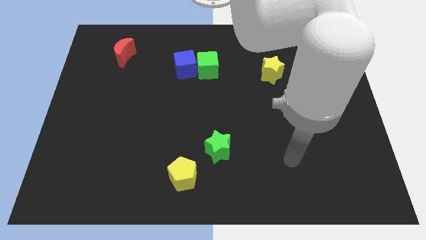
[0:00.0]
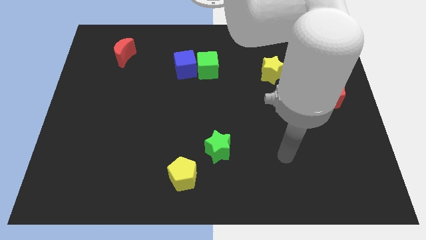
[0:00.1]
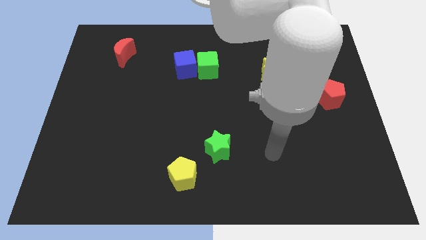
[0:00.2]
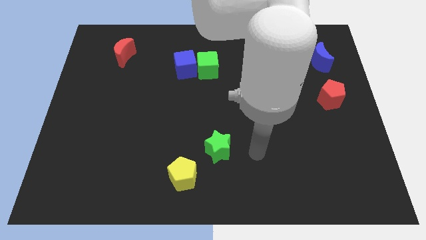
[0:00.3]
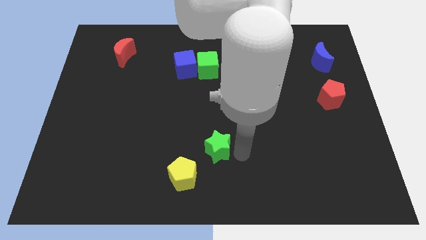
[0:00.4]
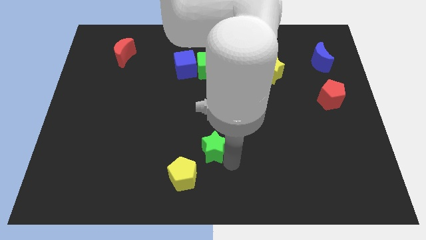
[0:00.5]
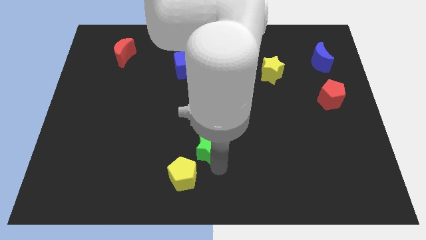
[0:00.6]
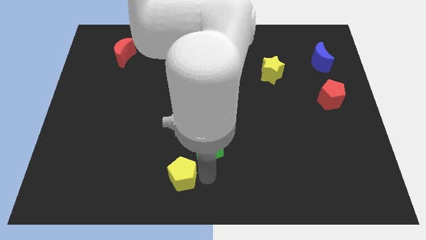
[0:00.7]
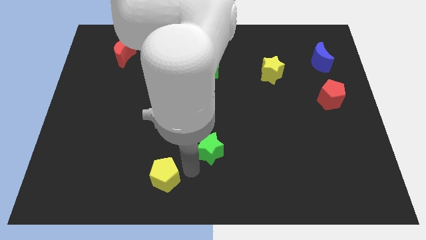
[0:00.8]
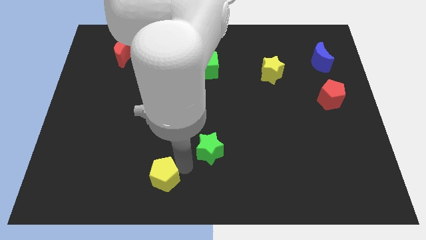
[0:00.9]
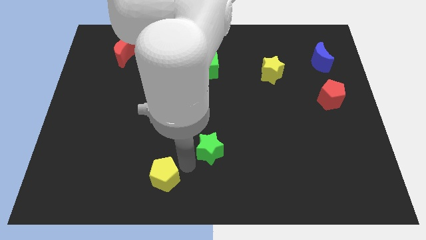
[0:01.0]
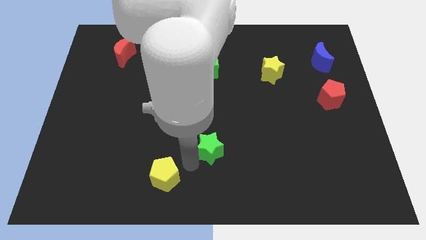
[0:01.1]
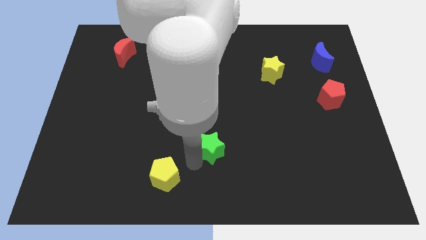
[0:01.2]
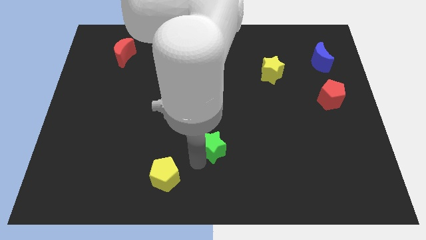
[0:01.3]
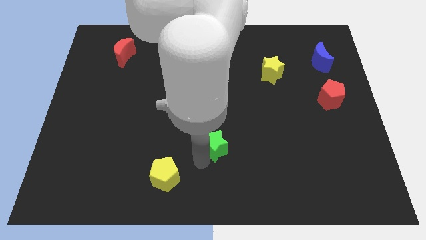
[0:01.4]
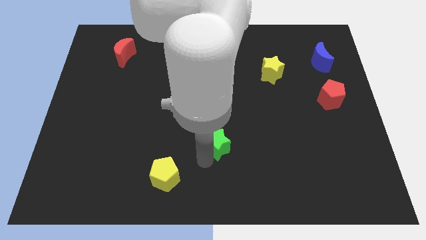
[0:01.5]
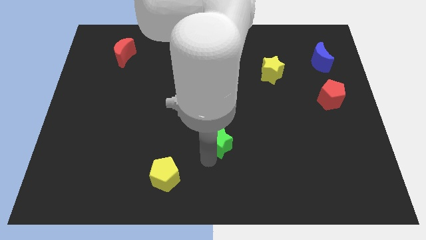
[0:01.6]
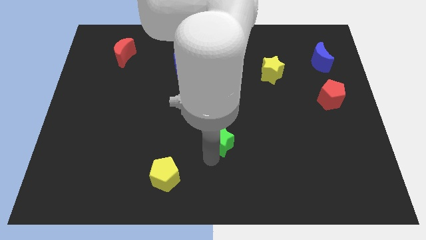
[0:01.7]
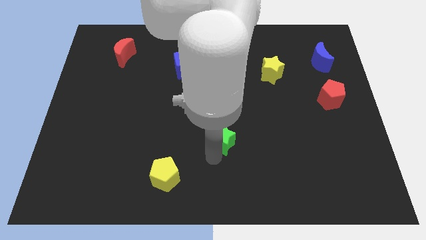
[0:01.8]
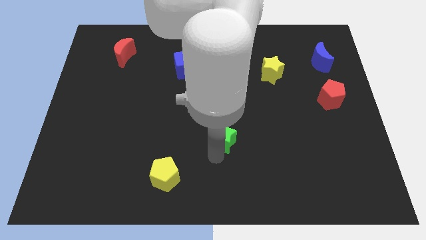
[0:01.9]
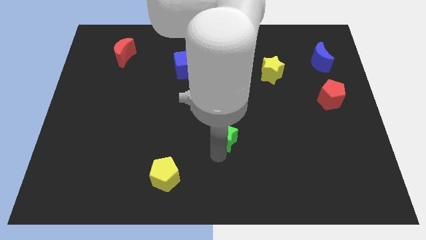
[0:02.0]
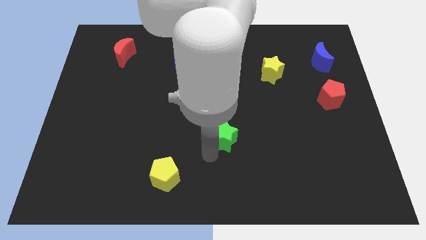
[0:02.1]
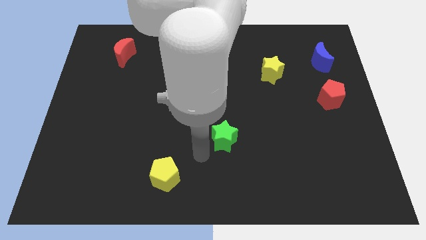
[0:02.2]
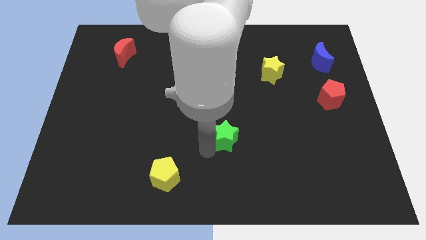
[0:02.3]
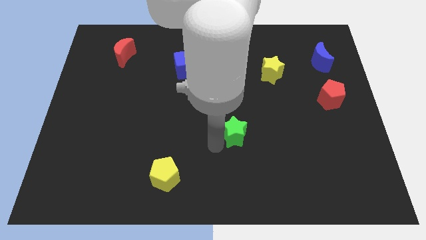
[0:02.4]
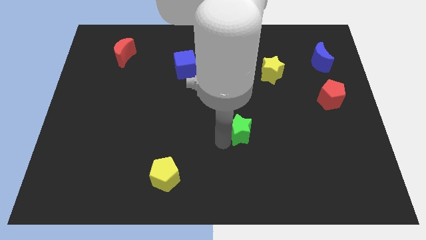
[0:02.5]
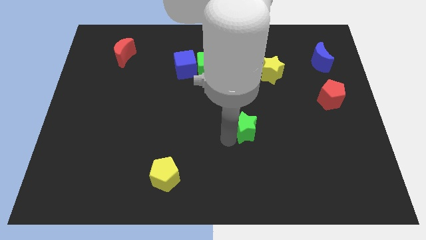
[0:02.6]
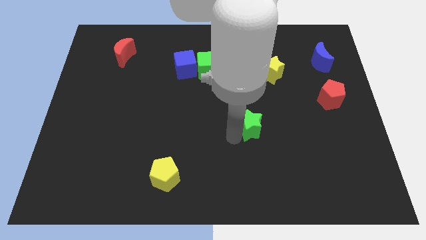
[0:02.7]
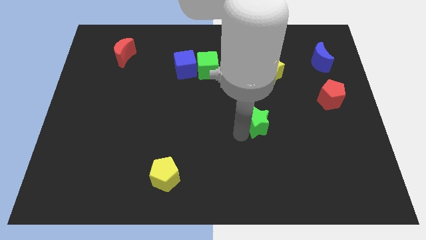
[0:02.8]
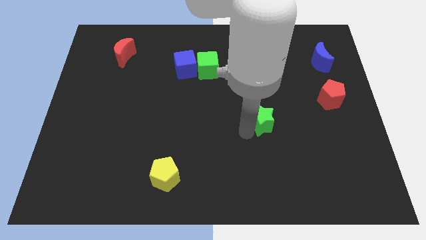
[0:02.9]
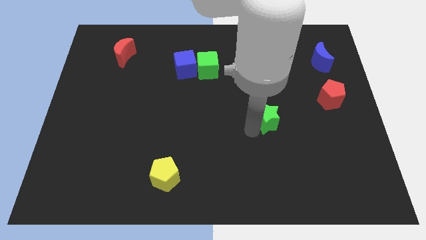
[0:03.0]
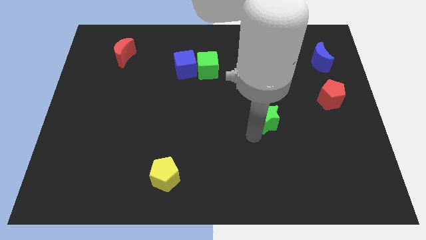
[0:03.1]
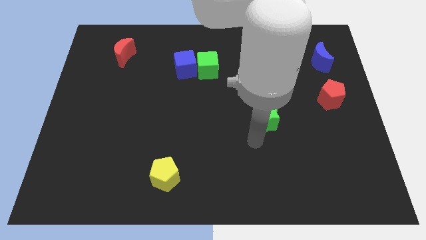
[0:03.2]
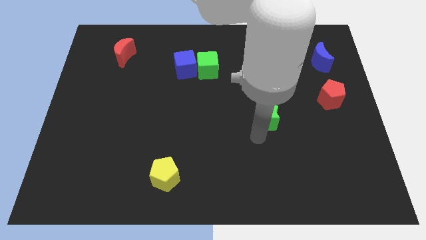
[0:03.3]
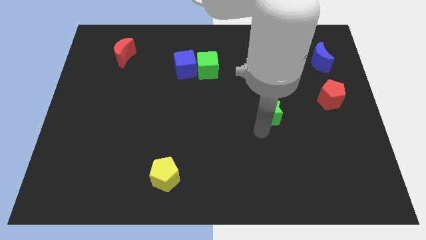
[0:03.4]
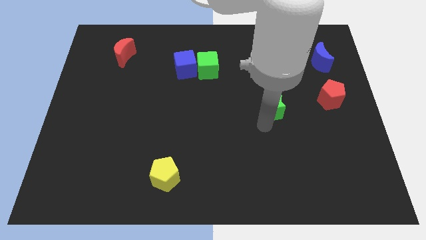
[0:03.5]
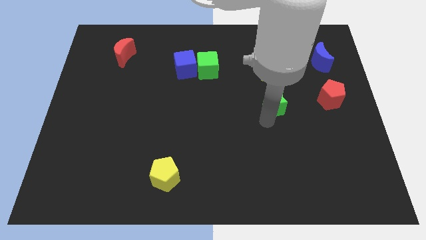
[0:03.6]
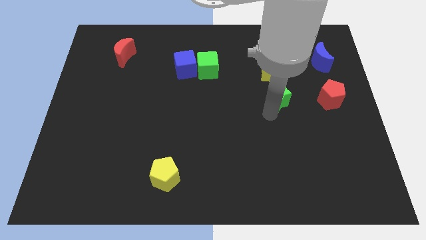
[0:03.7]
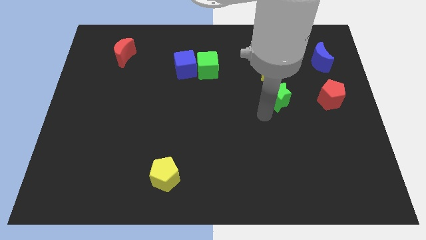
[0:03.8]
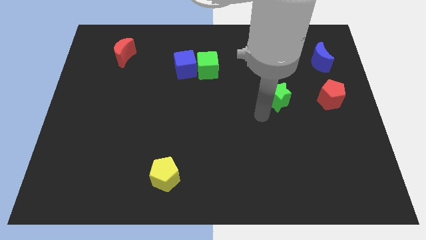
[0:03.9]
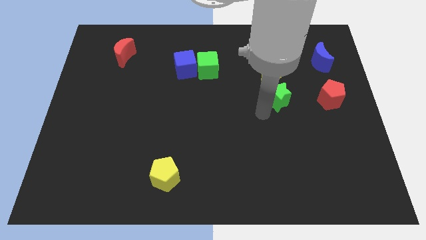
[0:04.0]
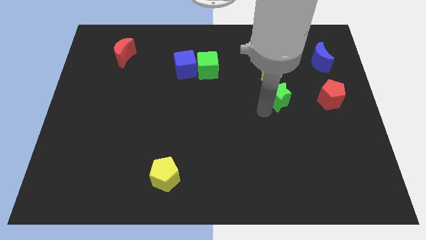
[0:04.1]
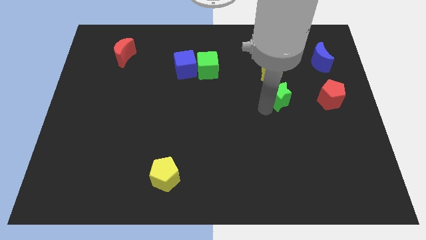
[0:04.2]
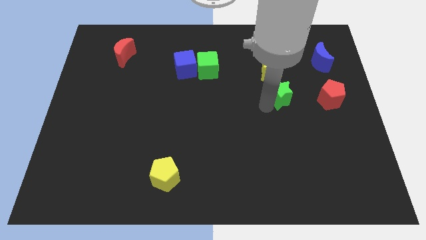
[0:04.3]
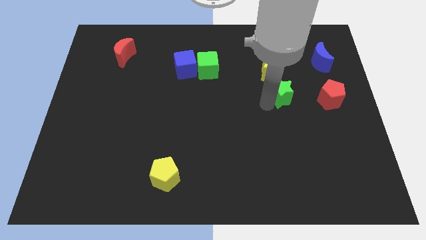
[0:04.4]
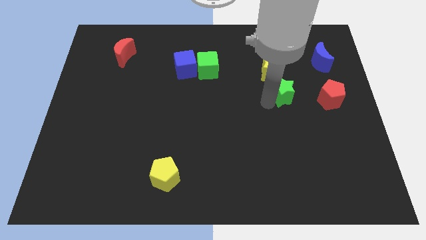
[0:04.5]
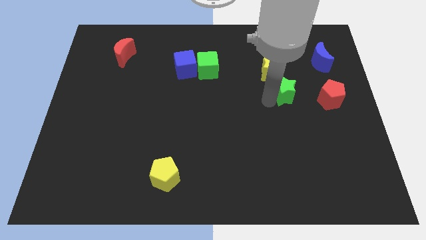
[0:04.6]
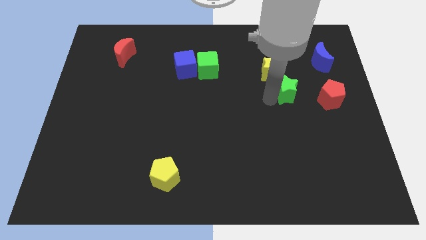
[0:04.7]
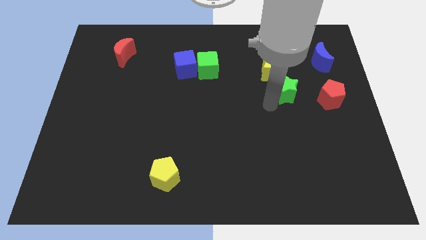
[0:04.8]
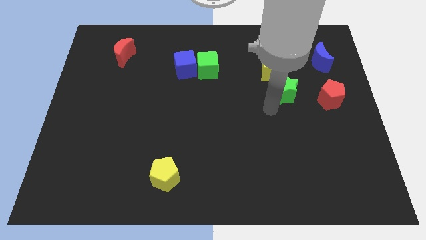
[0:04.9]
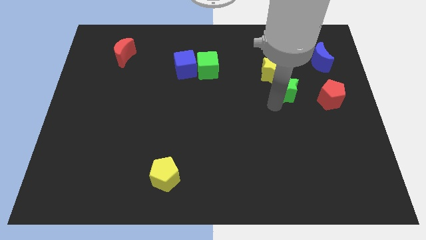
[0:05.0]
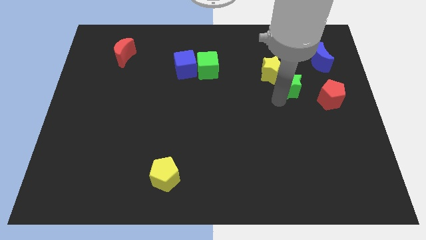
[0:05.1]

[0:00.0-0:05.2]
put the green star to the bottom left side of the blue moon

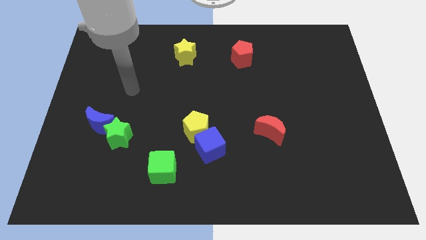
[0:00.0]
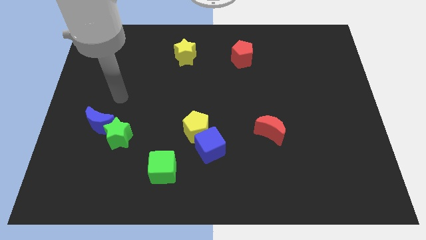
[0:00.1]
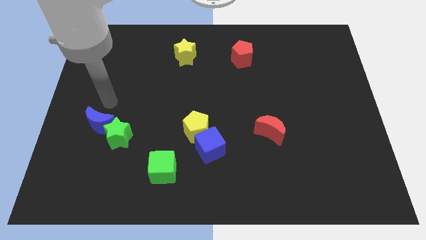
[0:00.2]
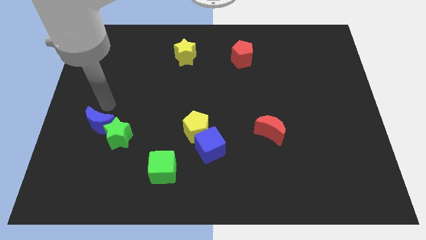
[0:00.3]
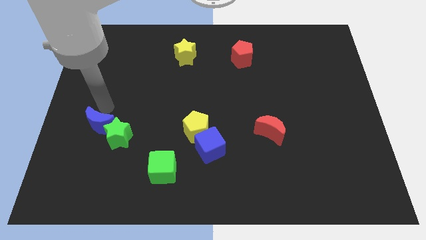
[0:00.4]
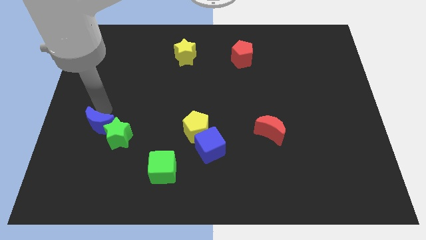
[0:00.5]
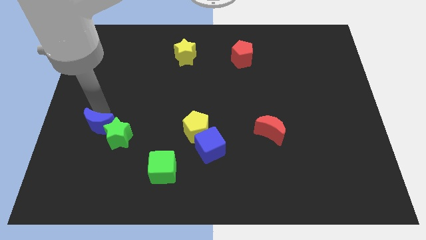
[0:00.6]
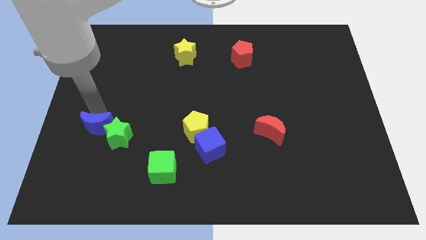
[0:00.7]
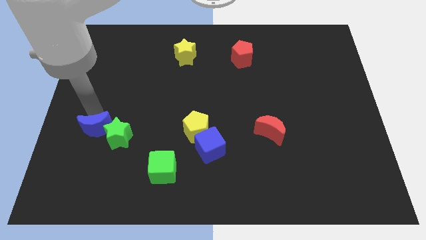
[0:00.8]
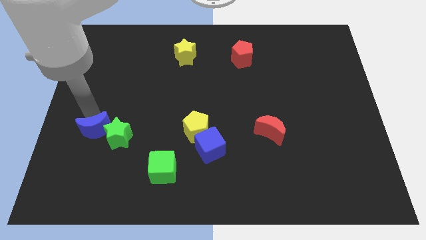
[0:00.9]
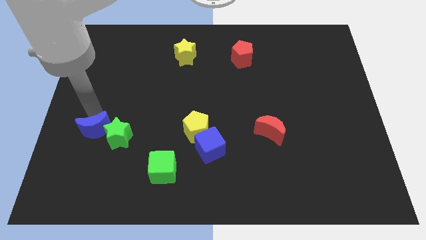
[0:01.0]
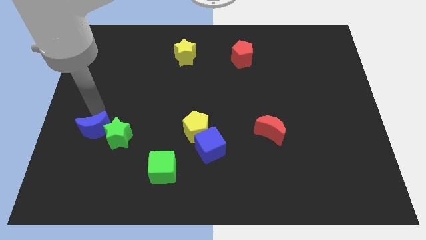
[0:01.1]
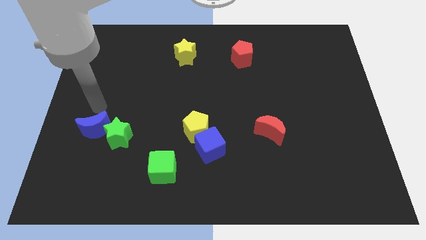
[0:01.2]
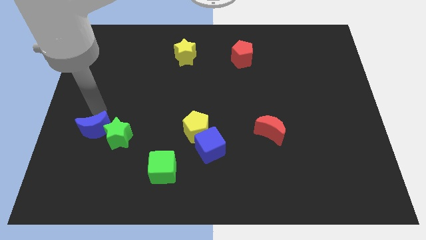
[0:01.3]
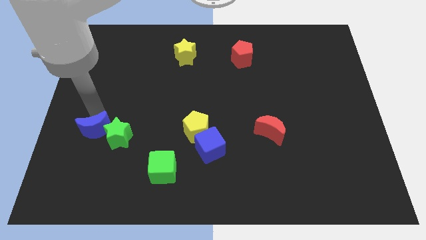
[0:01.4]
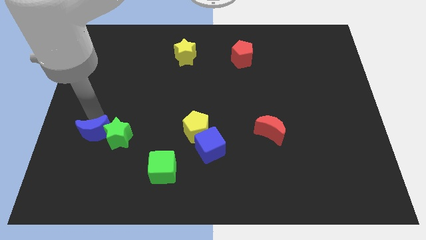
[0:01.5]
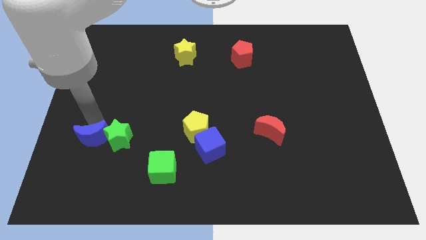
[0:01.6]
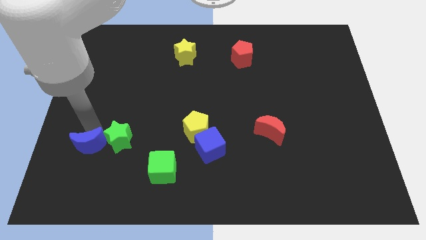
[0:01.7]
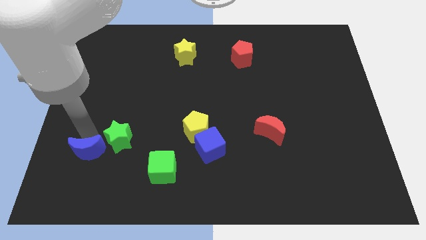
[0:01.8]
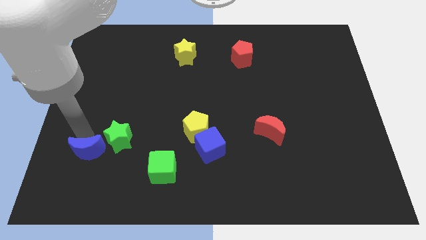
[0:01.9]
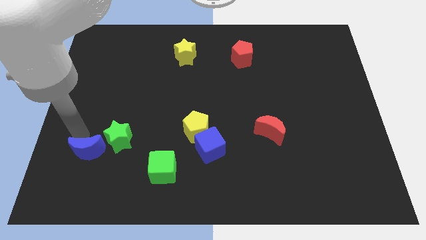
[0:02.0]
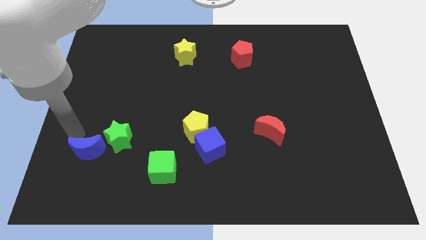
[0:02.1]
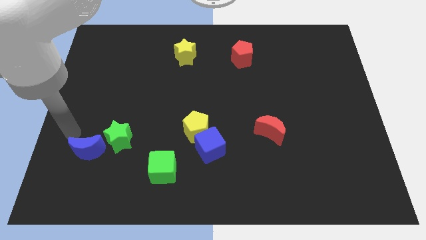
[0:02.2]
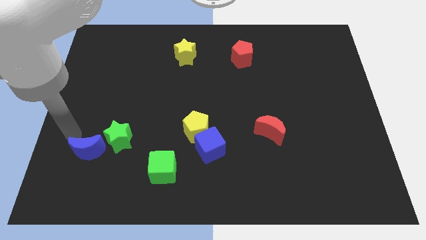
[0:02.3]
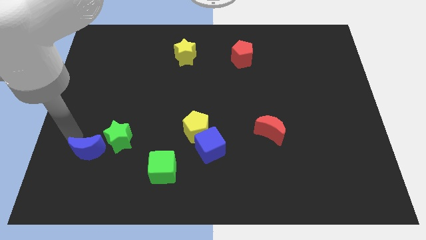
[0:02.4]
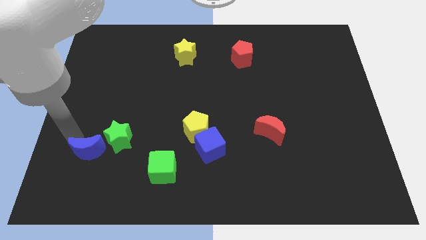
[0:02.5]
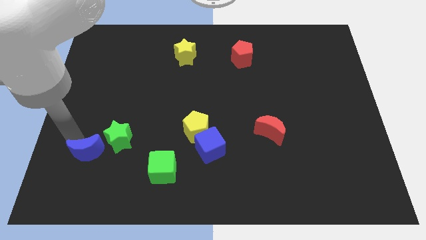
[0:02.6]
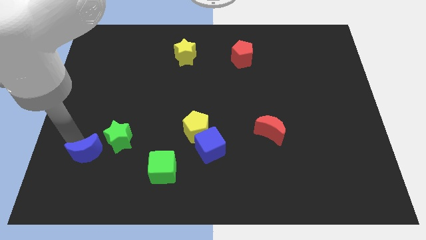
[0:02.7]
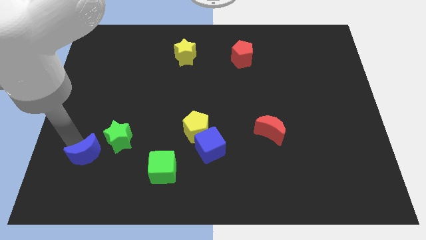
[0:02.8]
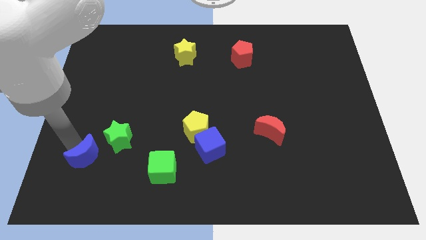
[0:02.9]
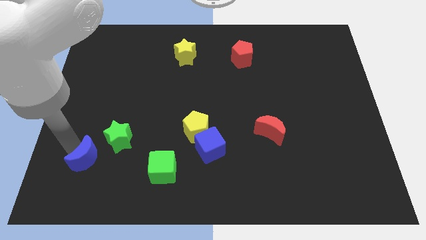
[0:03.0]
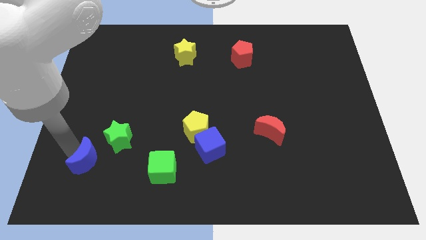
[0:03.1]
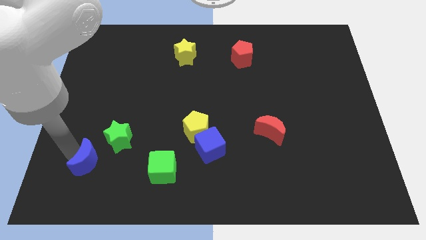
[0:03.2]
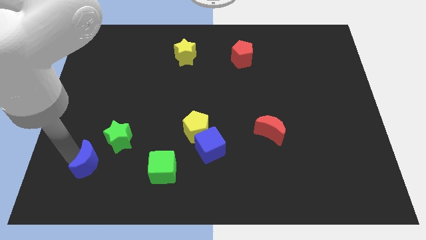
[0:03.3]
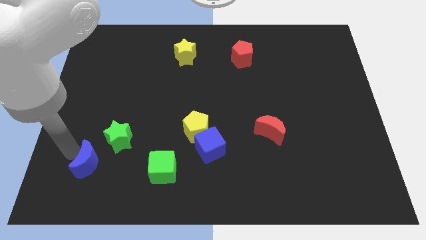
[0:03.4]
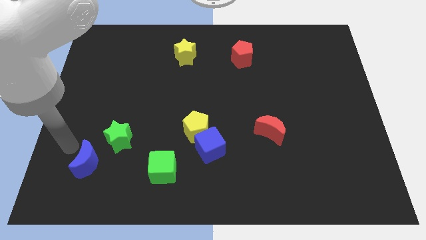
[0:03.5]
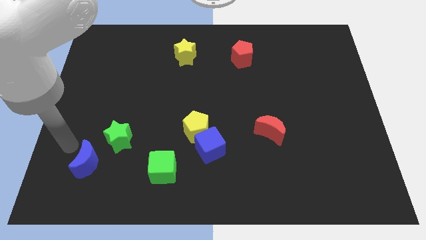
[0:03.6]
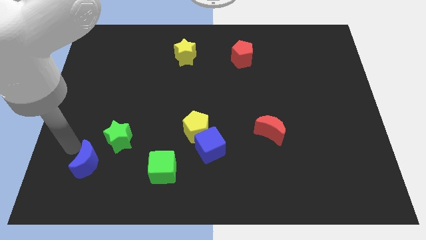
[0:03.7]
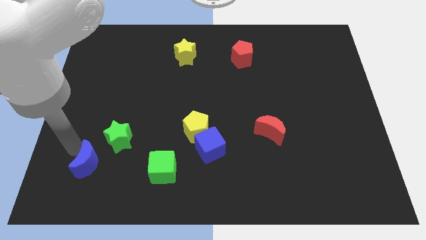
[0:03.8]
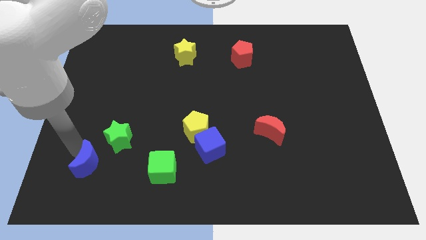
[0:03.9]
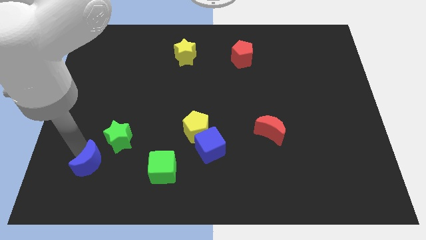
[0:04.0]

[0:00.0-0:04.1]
slide the blue moon to the bottom of the green star
